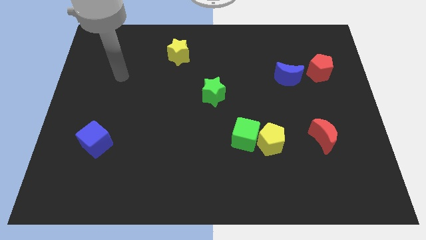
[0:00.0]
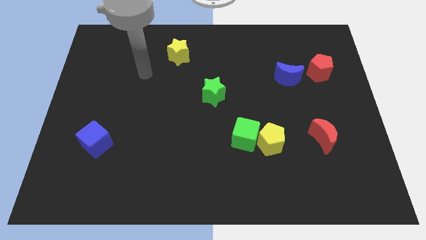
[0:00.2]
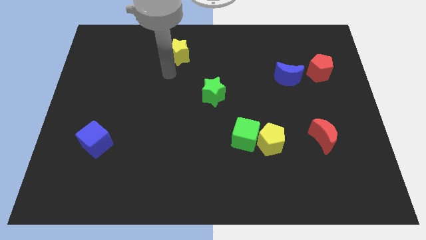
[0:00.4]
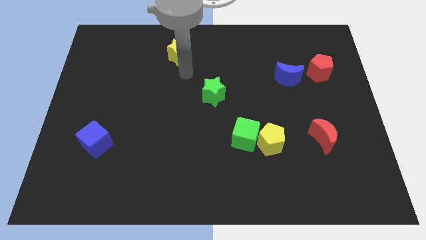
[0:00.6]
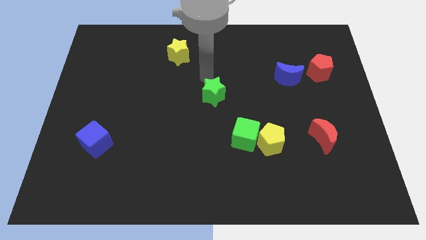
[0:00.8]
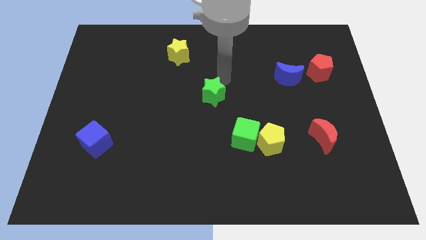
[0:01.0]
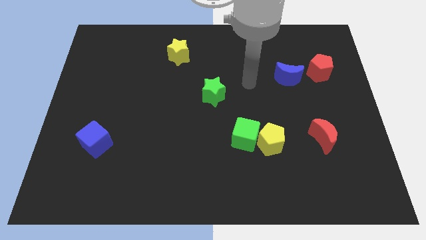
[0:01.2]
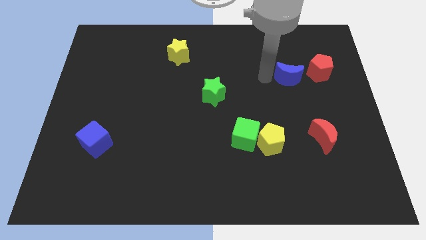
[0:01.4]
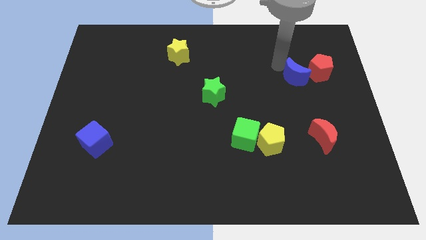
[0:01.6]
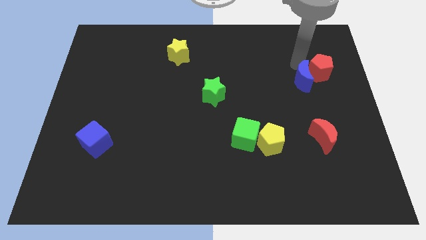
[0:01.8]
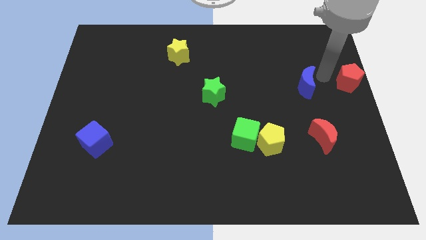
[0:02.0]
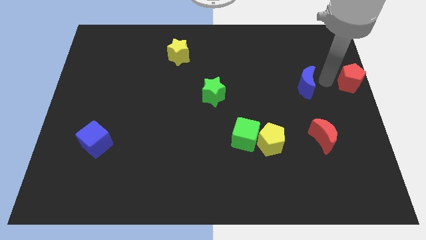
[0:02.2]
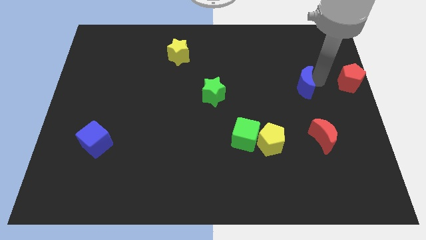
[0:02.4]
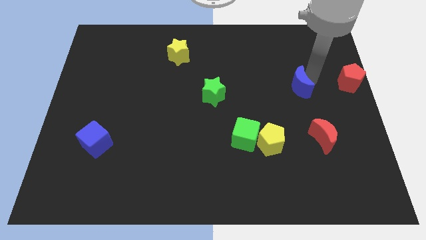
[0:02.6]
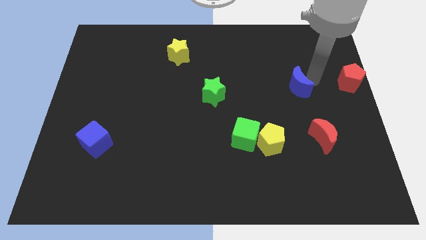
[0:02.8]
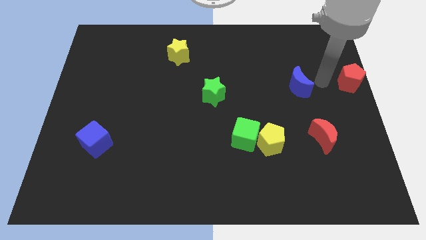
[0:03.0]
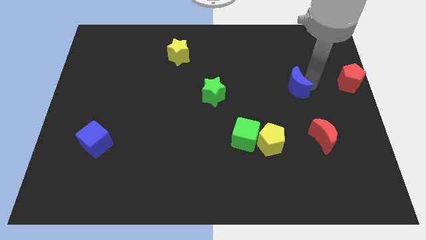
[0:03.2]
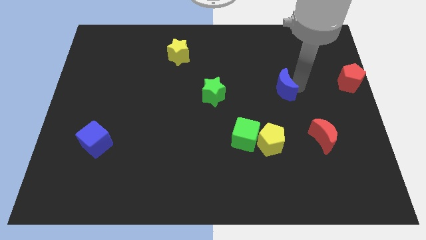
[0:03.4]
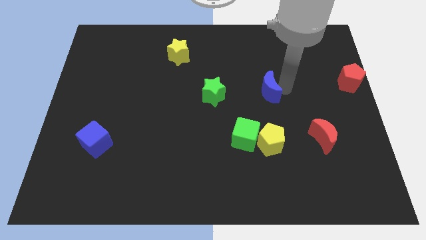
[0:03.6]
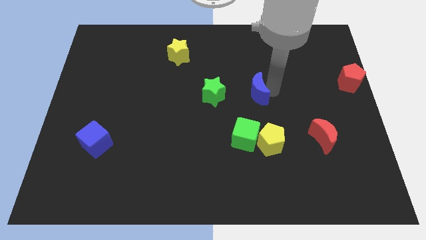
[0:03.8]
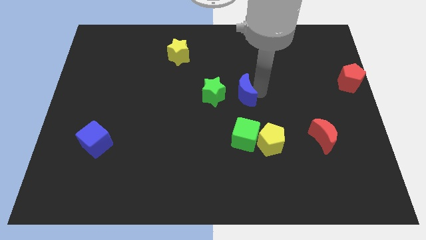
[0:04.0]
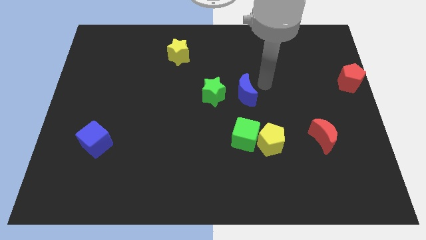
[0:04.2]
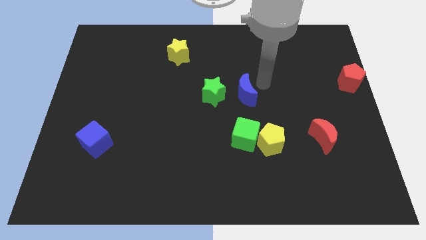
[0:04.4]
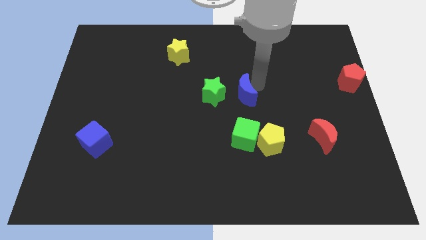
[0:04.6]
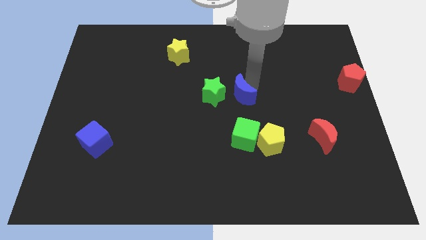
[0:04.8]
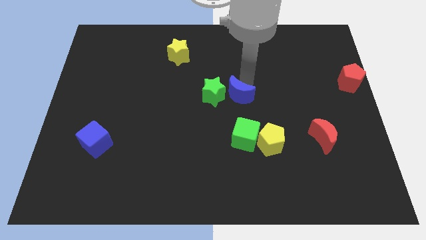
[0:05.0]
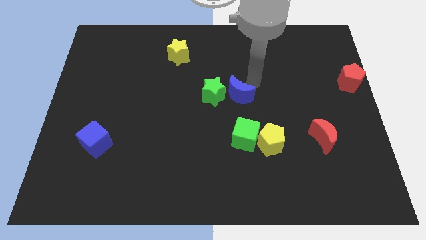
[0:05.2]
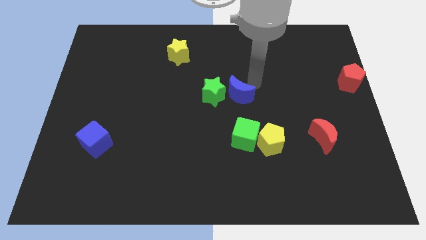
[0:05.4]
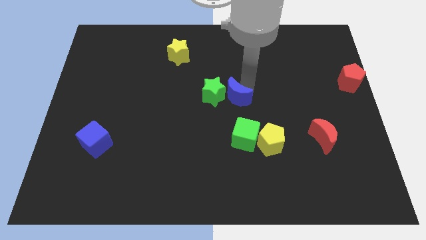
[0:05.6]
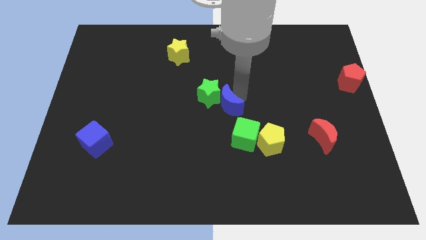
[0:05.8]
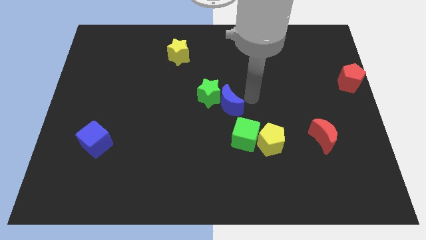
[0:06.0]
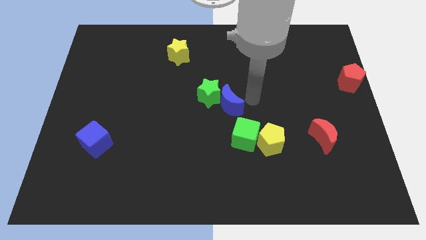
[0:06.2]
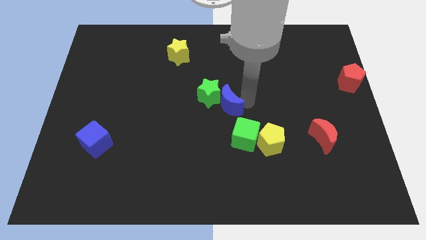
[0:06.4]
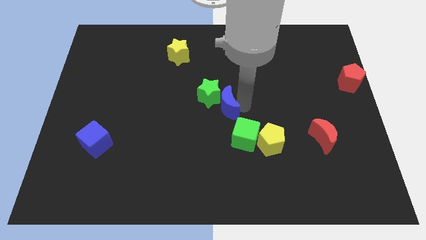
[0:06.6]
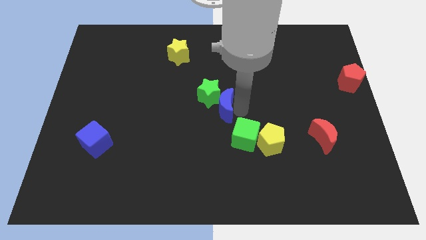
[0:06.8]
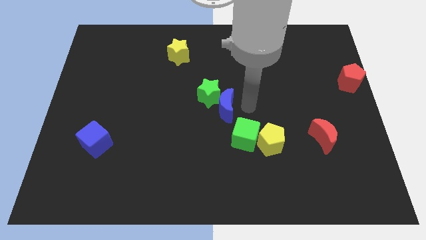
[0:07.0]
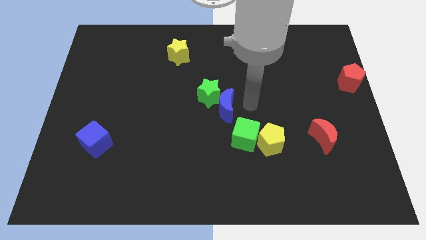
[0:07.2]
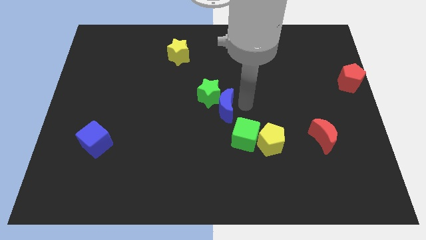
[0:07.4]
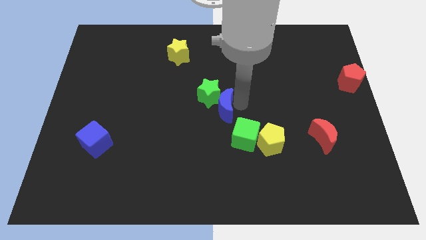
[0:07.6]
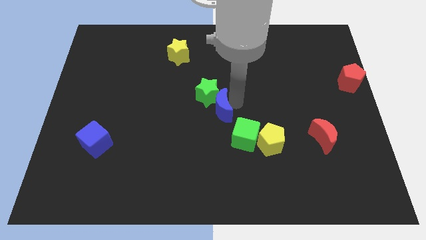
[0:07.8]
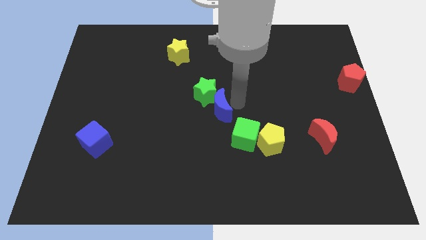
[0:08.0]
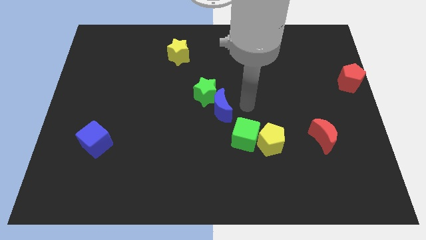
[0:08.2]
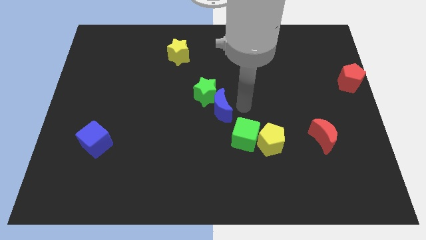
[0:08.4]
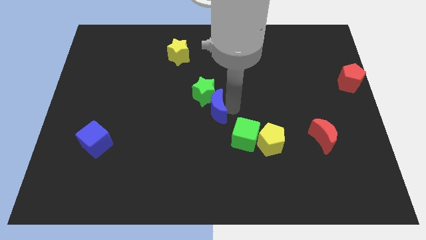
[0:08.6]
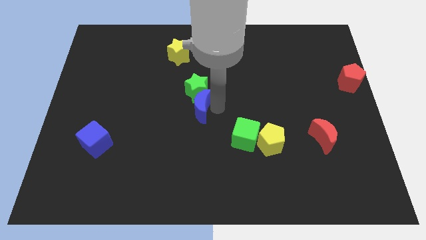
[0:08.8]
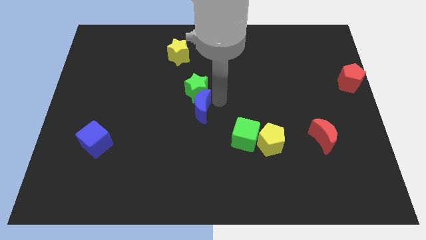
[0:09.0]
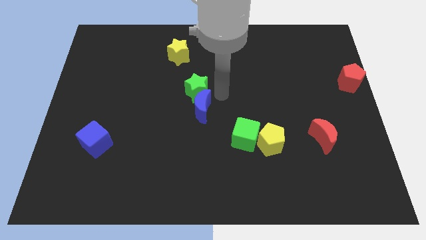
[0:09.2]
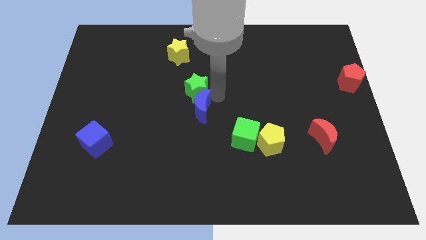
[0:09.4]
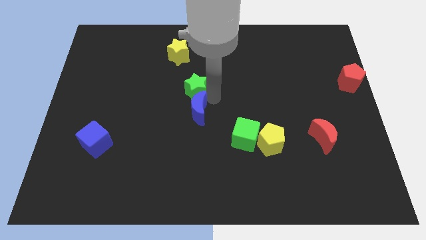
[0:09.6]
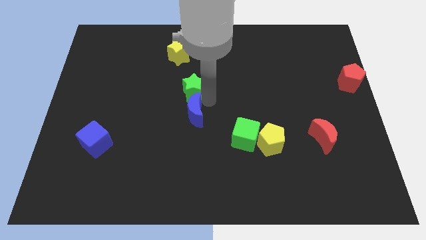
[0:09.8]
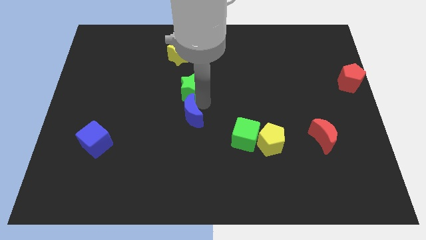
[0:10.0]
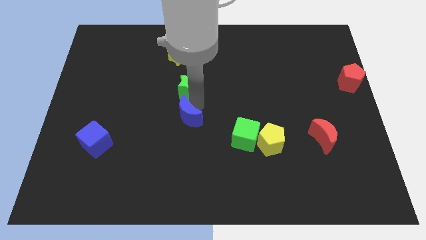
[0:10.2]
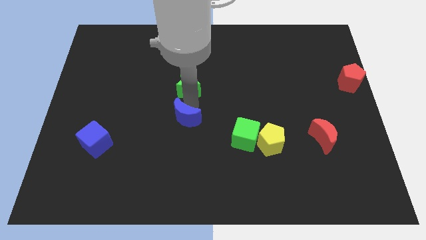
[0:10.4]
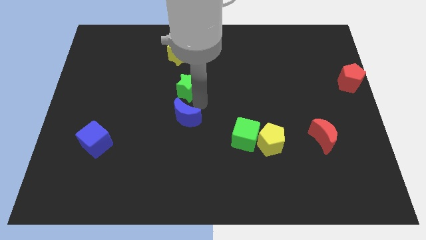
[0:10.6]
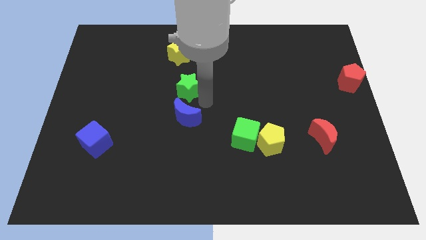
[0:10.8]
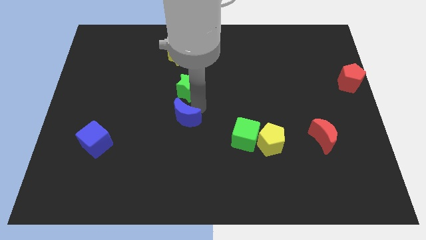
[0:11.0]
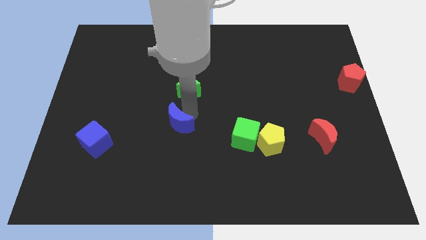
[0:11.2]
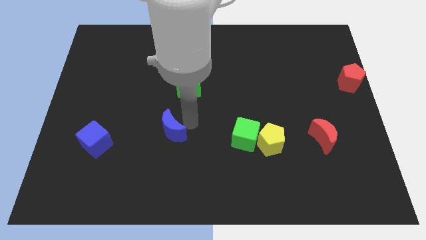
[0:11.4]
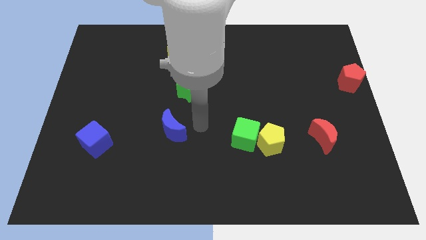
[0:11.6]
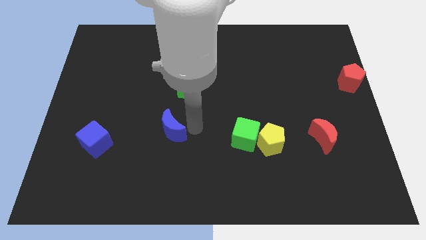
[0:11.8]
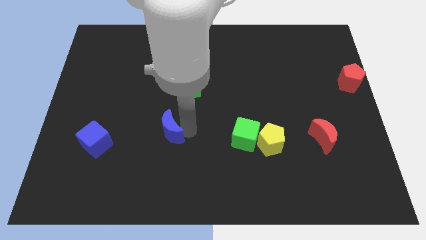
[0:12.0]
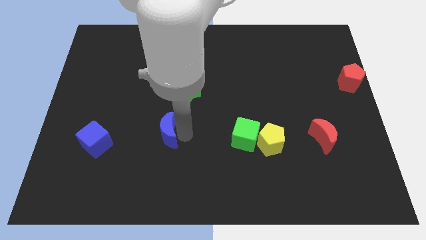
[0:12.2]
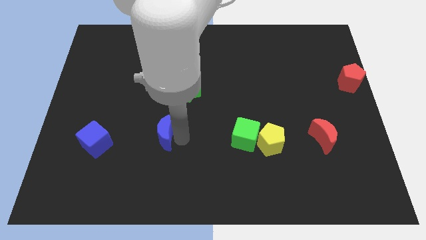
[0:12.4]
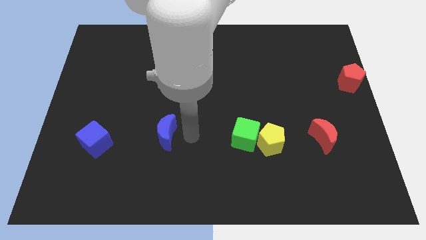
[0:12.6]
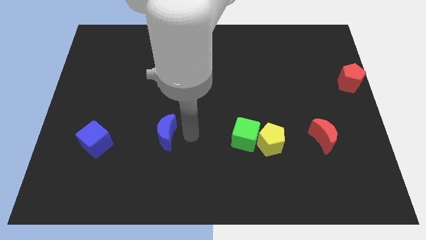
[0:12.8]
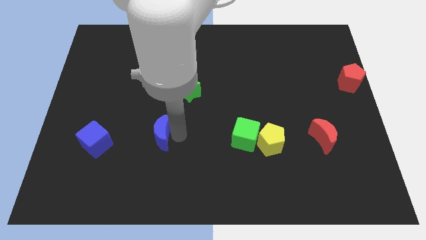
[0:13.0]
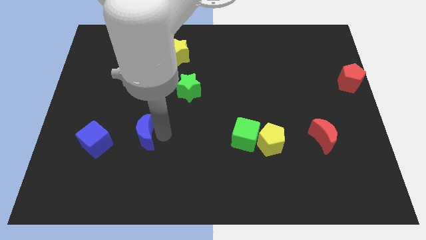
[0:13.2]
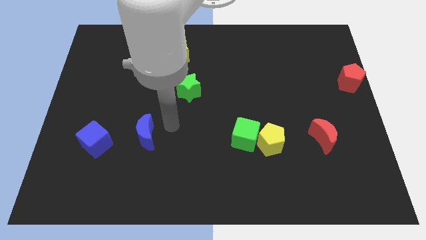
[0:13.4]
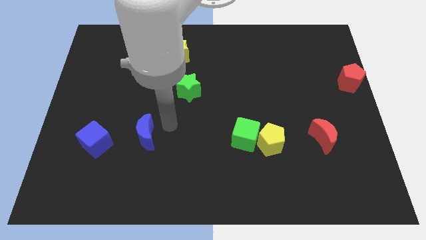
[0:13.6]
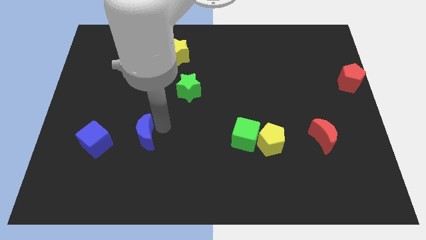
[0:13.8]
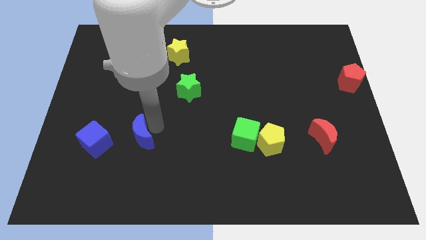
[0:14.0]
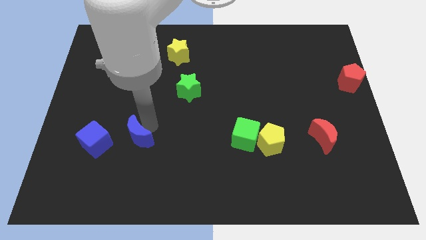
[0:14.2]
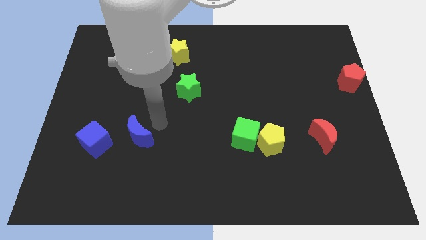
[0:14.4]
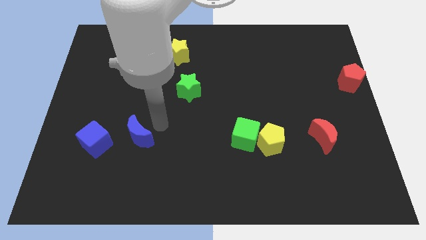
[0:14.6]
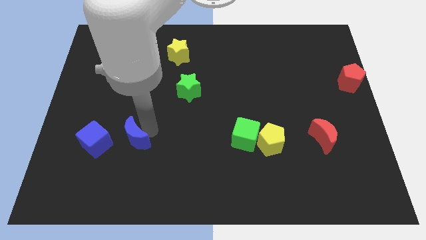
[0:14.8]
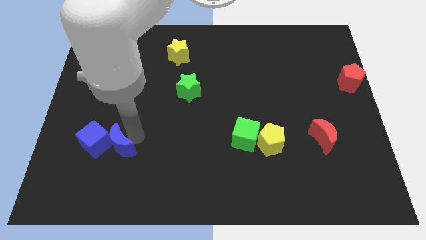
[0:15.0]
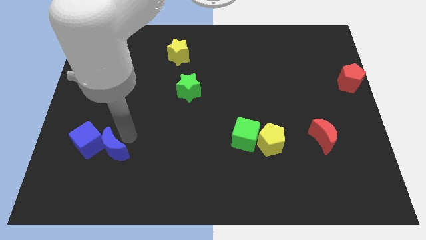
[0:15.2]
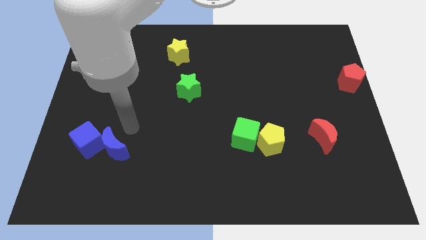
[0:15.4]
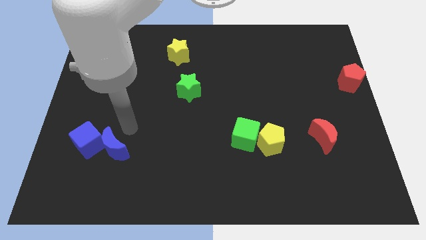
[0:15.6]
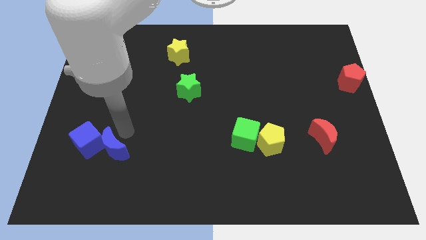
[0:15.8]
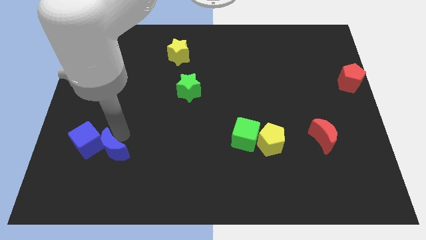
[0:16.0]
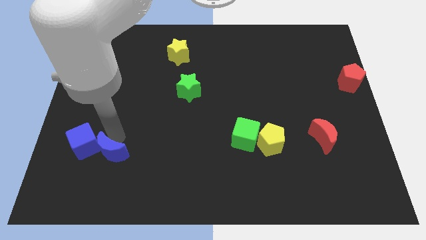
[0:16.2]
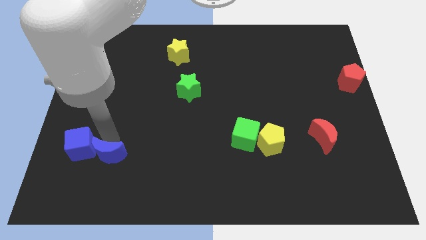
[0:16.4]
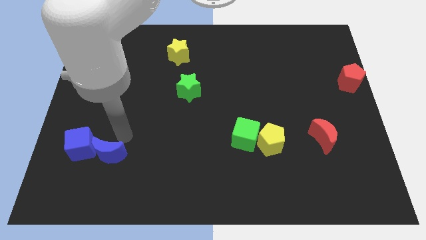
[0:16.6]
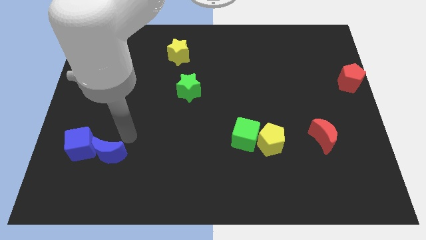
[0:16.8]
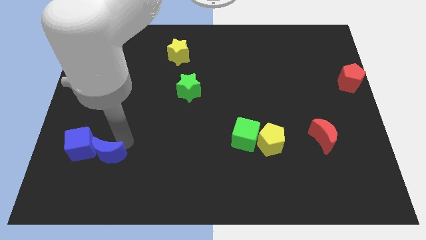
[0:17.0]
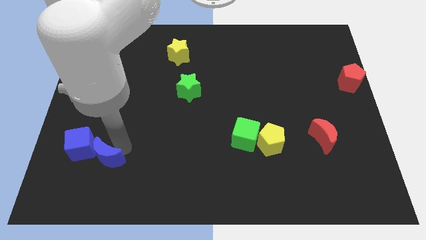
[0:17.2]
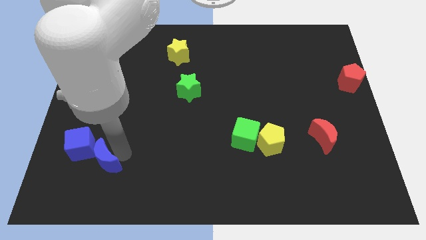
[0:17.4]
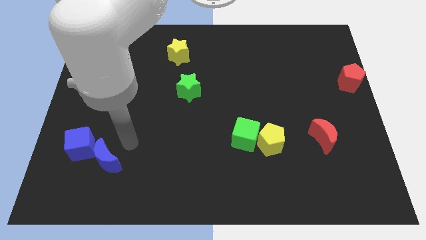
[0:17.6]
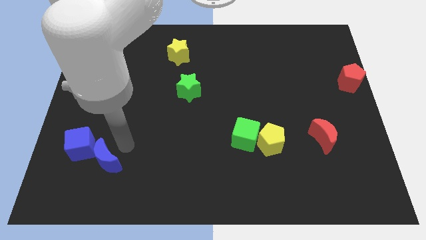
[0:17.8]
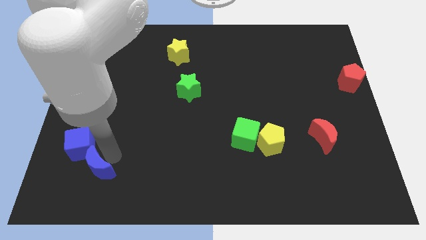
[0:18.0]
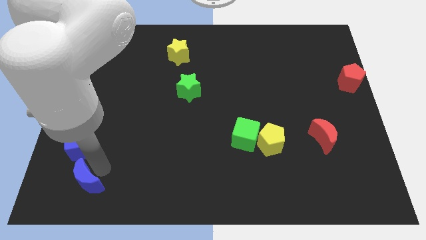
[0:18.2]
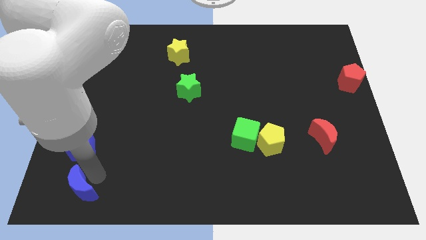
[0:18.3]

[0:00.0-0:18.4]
slide the blue moon to the bottom left
